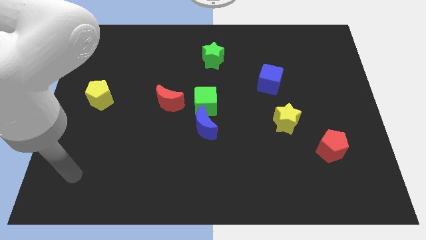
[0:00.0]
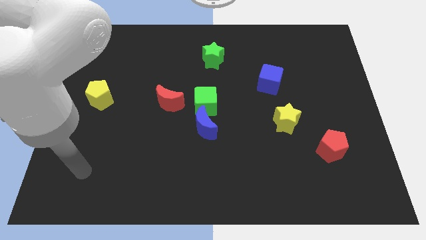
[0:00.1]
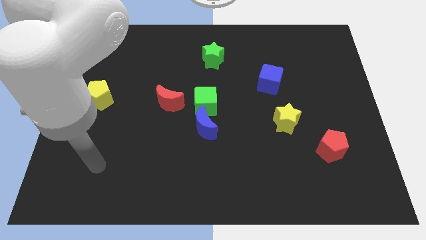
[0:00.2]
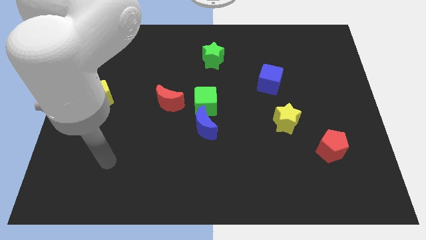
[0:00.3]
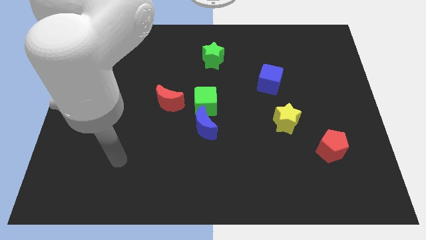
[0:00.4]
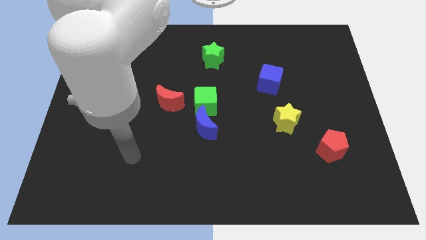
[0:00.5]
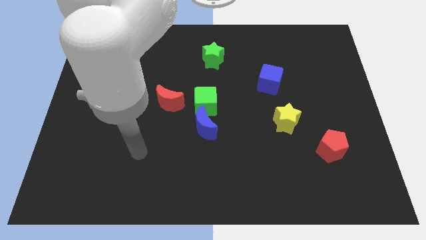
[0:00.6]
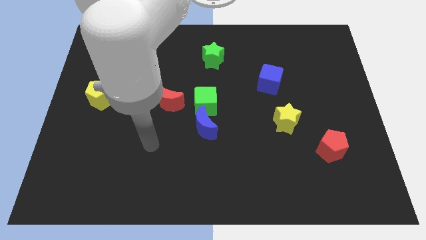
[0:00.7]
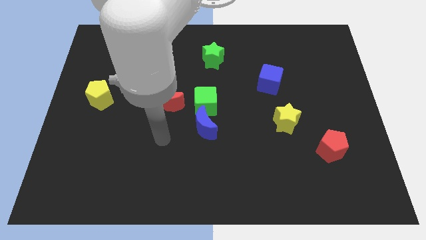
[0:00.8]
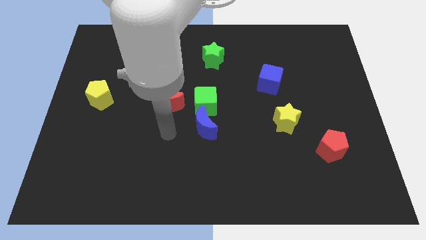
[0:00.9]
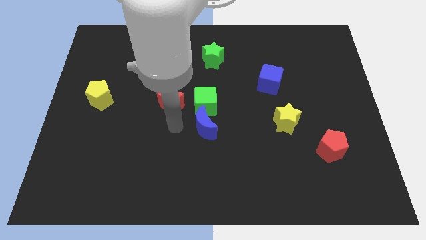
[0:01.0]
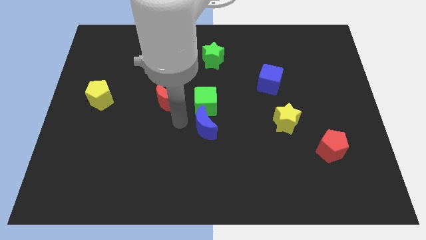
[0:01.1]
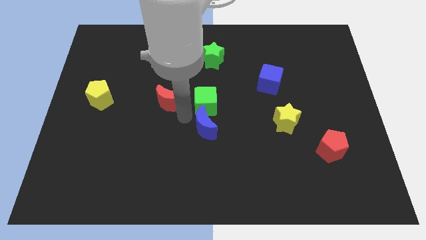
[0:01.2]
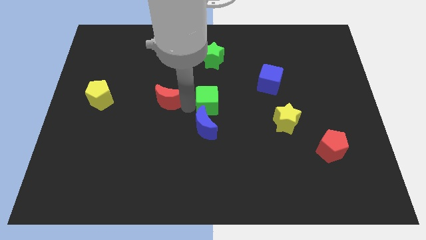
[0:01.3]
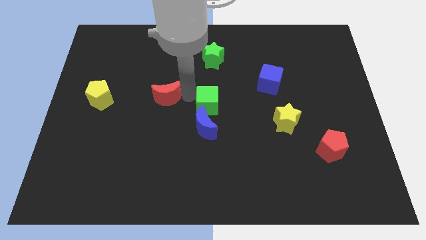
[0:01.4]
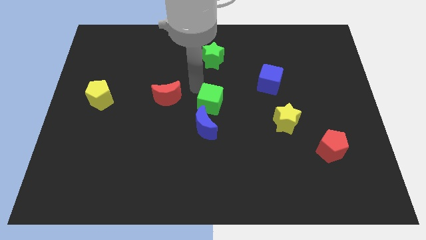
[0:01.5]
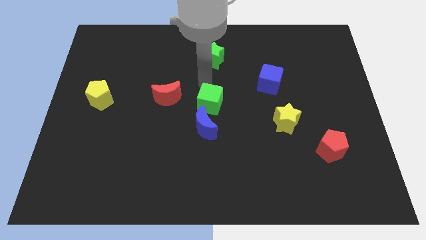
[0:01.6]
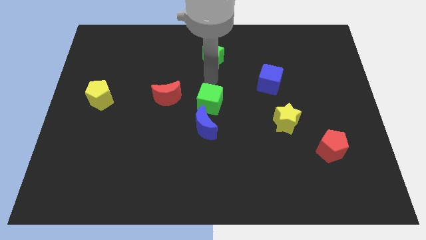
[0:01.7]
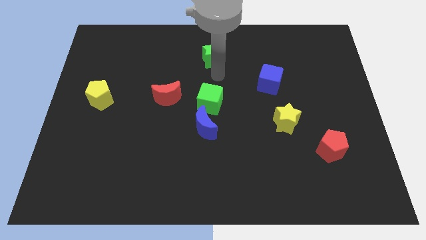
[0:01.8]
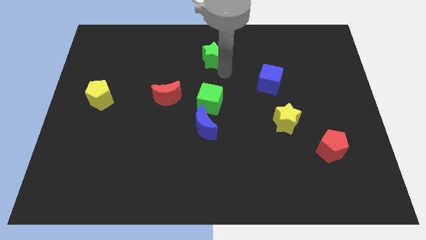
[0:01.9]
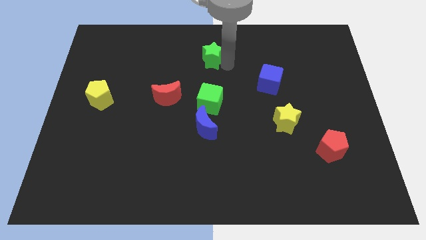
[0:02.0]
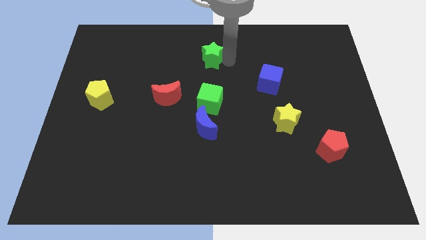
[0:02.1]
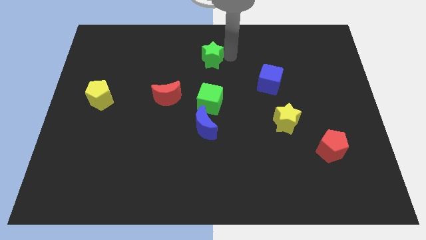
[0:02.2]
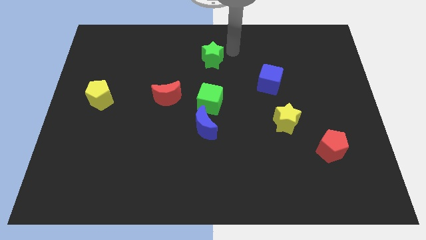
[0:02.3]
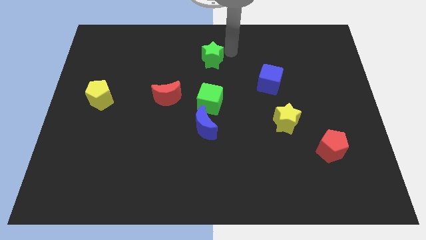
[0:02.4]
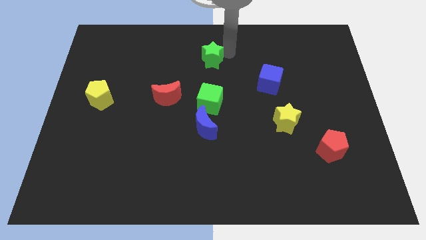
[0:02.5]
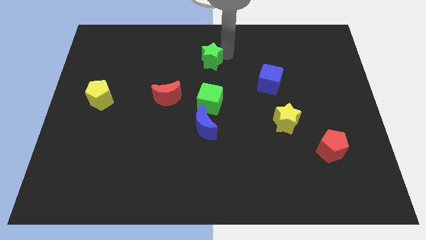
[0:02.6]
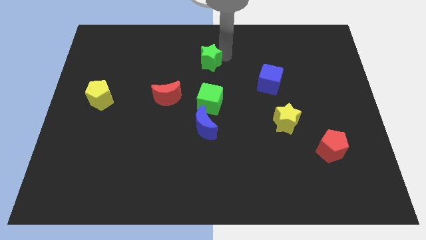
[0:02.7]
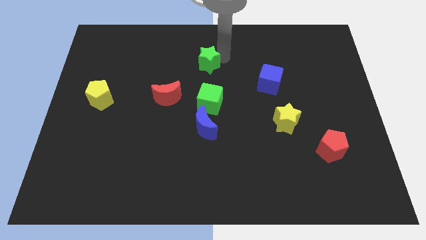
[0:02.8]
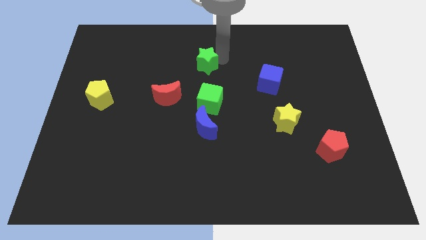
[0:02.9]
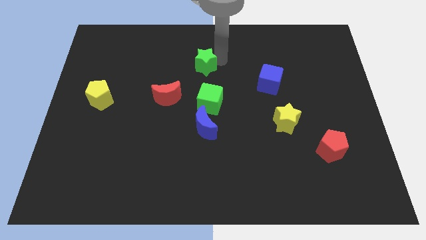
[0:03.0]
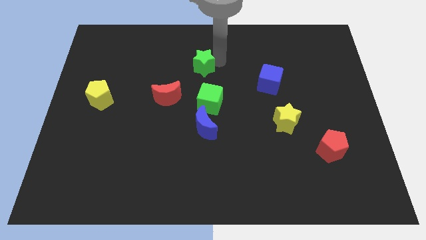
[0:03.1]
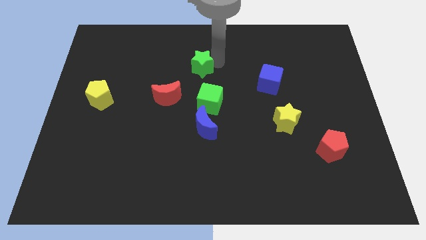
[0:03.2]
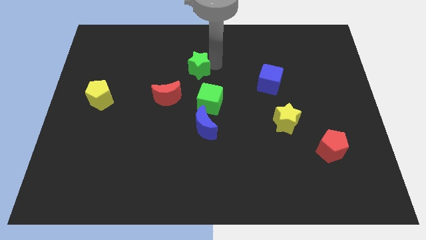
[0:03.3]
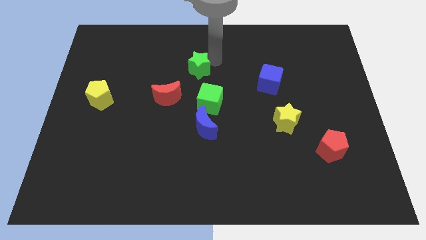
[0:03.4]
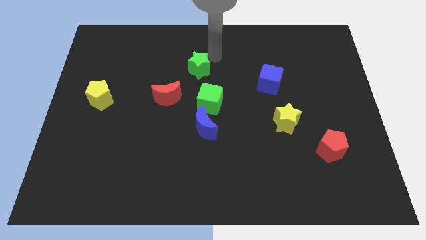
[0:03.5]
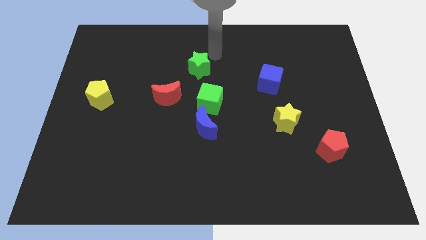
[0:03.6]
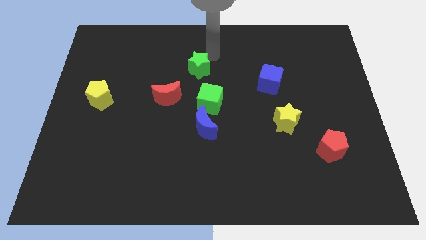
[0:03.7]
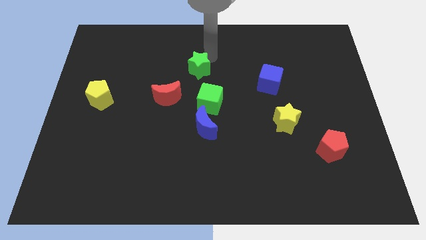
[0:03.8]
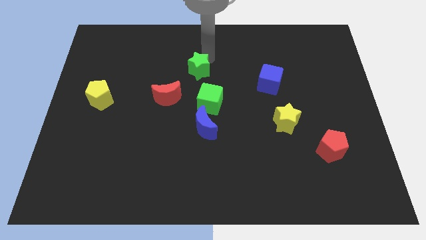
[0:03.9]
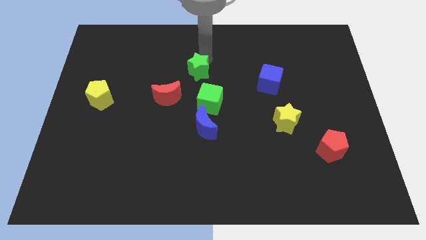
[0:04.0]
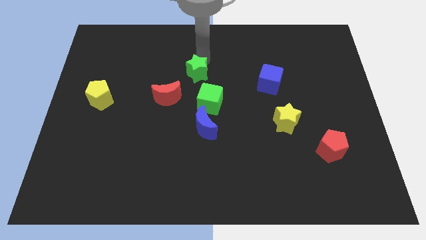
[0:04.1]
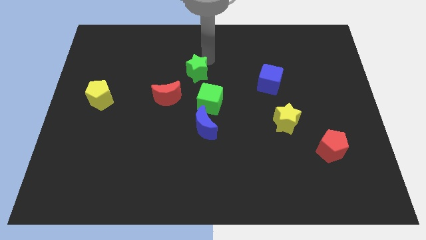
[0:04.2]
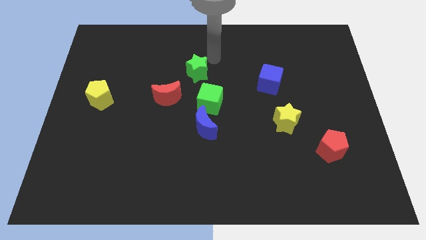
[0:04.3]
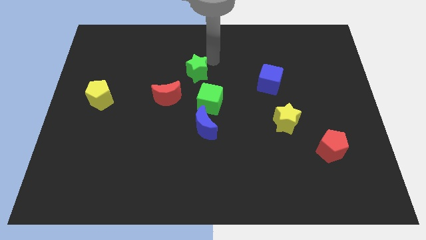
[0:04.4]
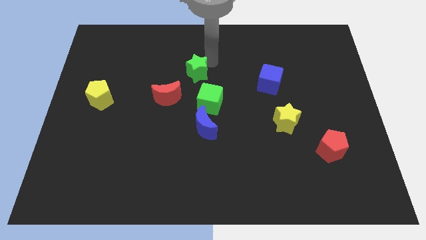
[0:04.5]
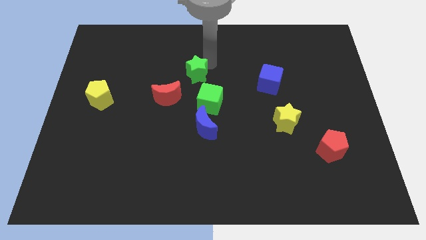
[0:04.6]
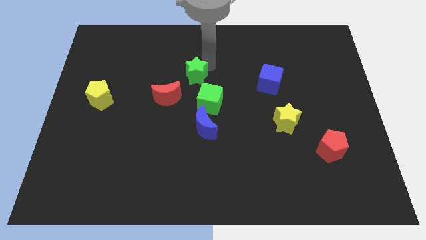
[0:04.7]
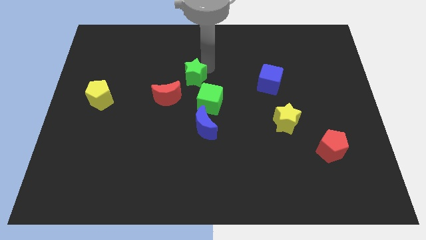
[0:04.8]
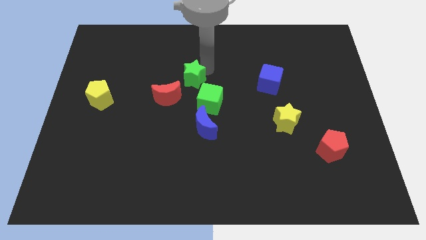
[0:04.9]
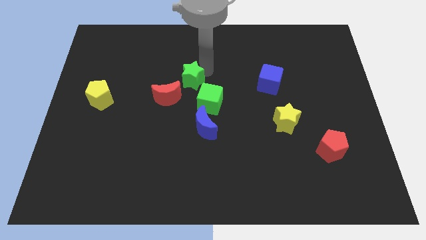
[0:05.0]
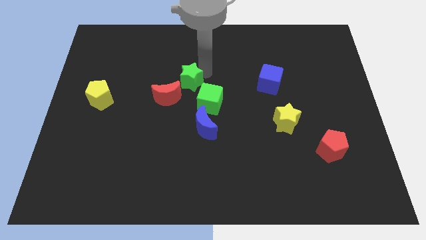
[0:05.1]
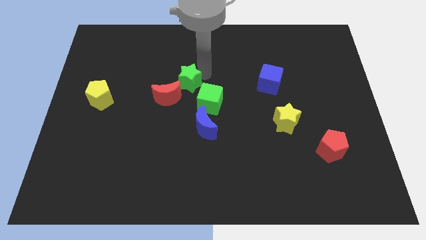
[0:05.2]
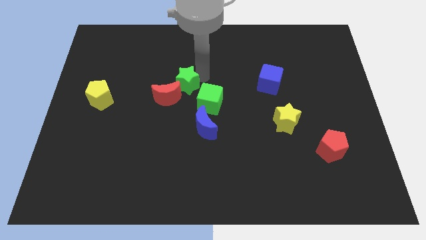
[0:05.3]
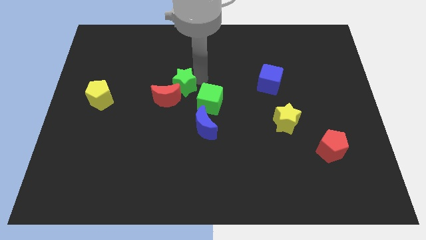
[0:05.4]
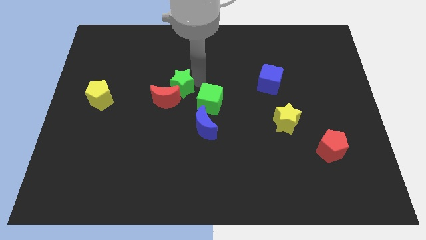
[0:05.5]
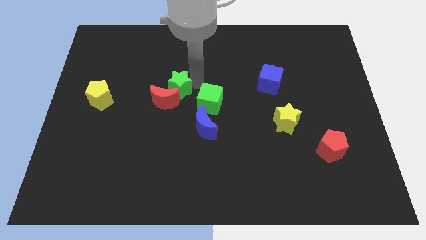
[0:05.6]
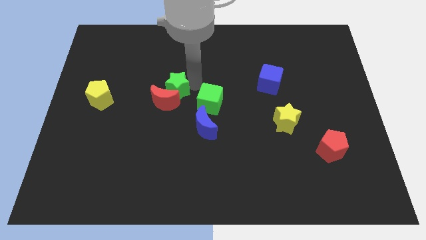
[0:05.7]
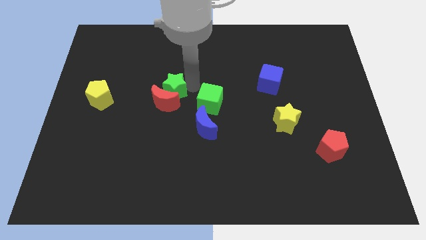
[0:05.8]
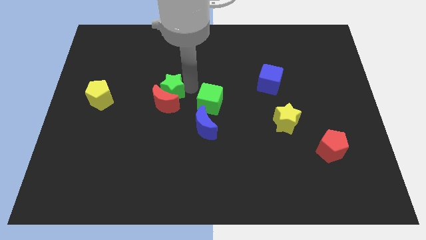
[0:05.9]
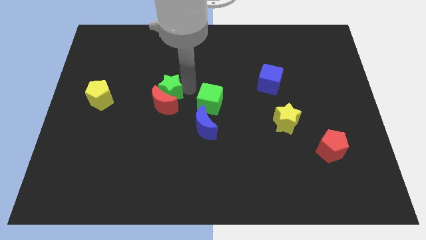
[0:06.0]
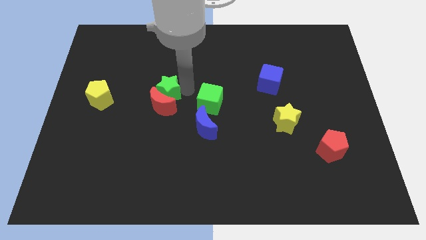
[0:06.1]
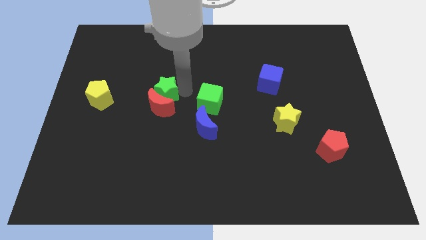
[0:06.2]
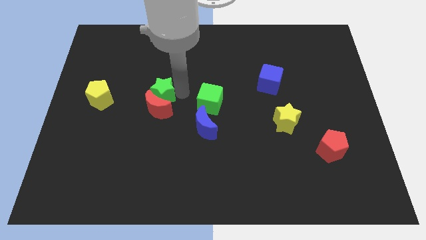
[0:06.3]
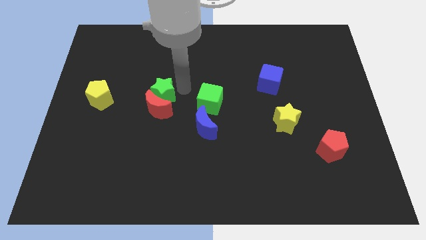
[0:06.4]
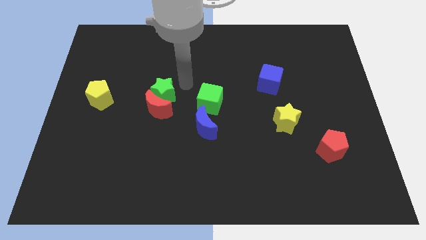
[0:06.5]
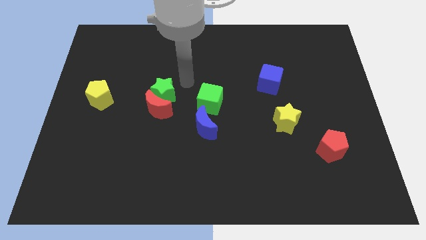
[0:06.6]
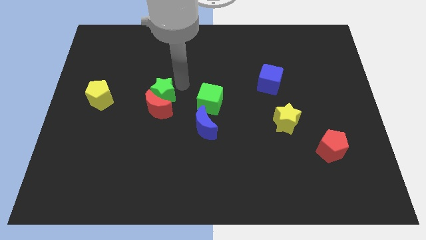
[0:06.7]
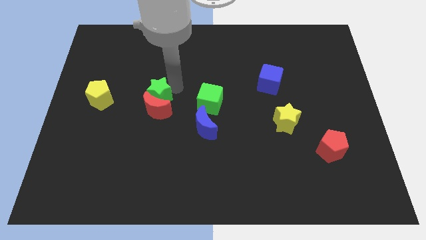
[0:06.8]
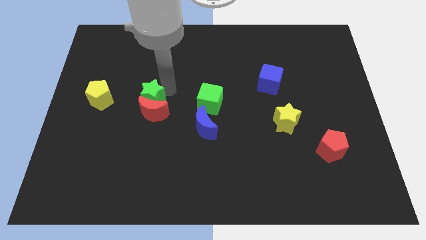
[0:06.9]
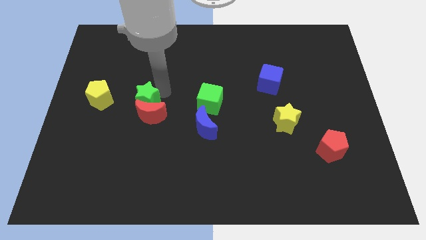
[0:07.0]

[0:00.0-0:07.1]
move the green star down and left

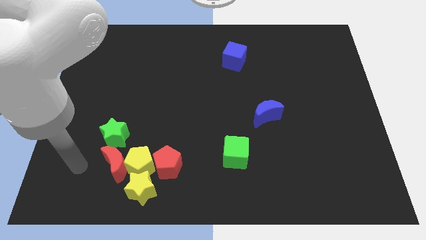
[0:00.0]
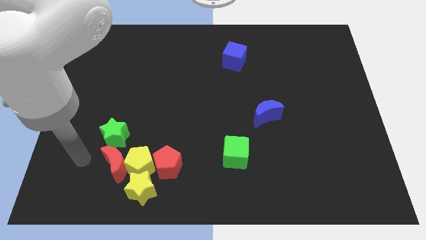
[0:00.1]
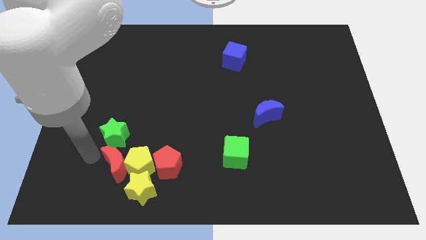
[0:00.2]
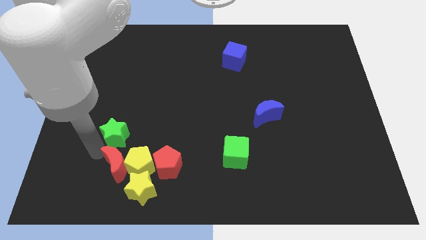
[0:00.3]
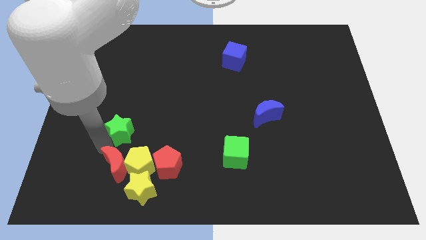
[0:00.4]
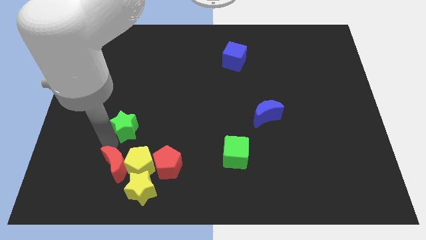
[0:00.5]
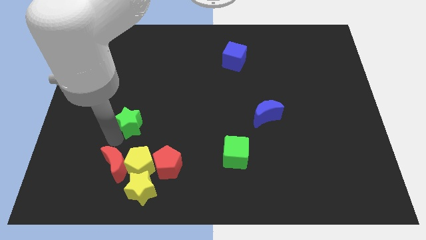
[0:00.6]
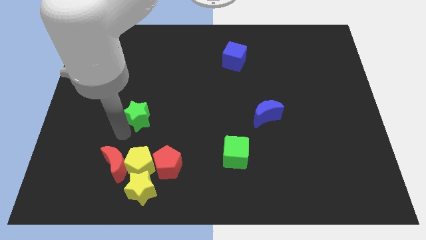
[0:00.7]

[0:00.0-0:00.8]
slide the green star a little bit upwards and then to the right

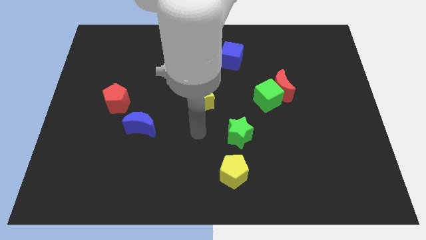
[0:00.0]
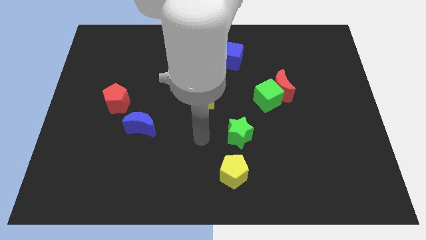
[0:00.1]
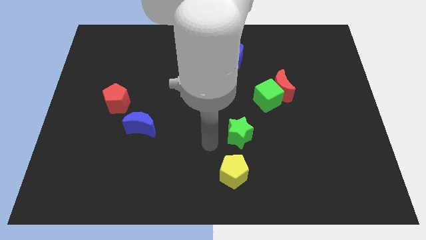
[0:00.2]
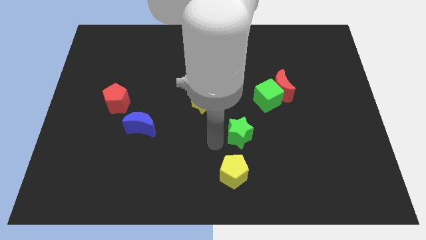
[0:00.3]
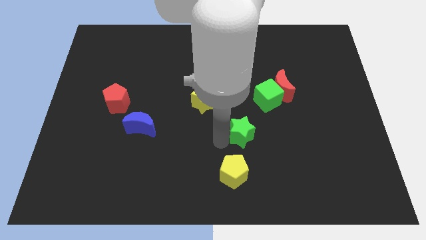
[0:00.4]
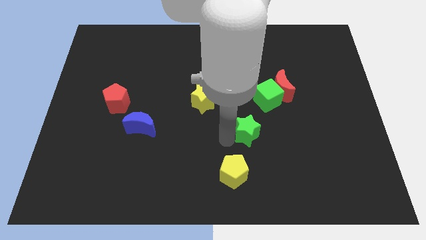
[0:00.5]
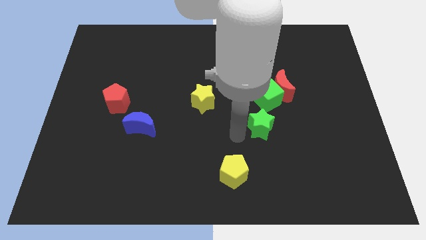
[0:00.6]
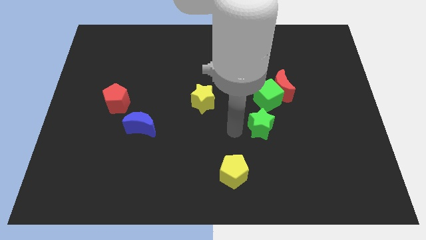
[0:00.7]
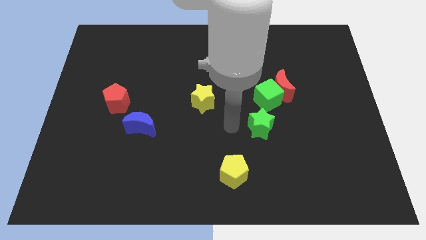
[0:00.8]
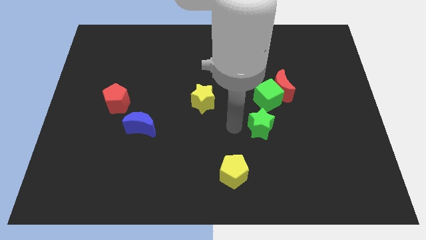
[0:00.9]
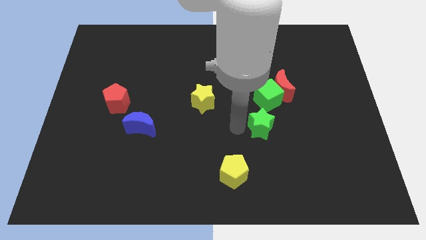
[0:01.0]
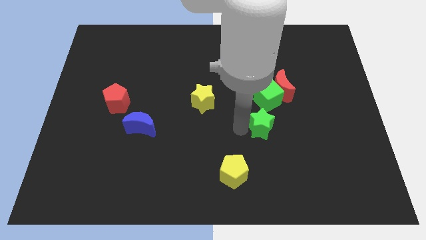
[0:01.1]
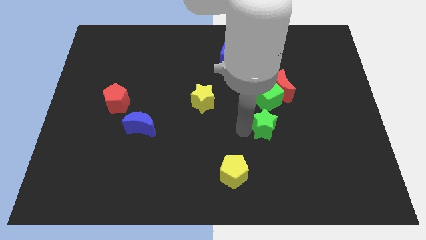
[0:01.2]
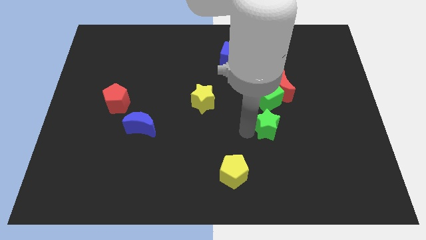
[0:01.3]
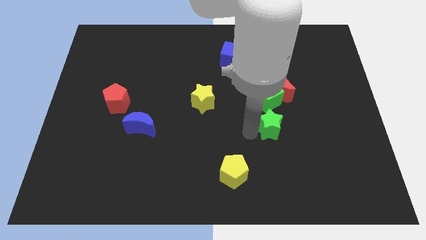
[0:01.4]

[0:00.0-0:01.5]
slightly push the green star to the right
